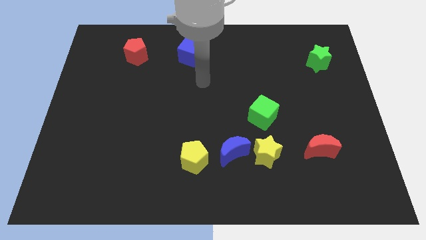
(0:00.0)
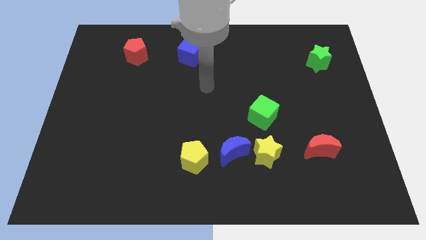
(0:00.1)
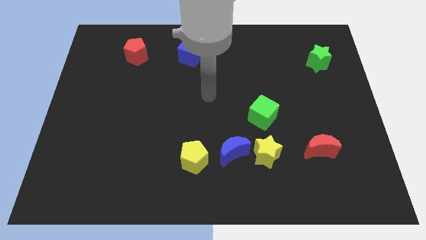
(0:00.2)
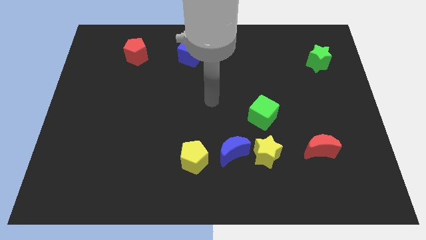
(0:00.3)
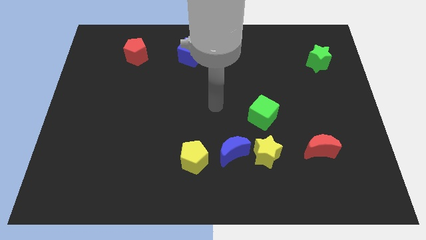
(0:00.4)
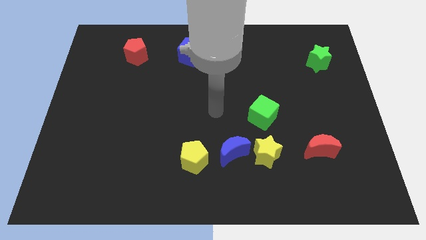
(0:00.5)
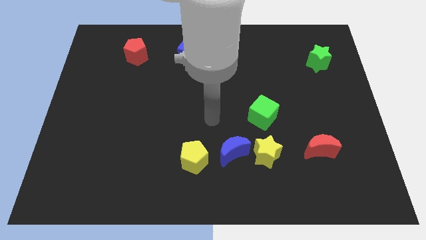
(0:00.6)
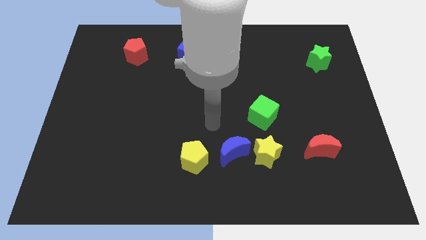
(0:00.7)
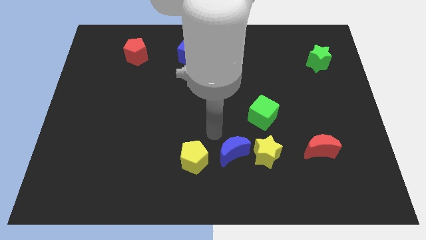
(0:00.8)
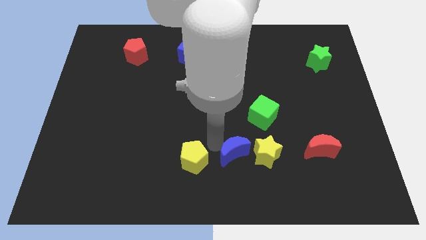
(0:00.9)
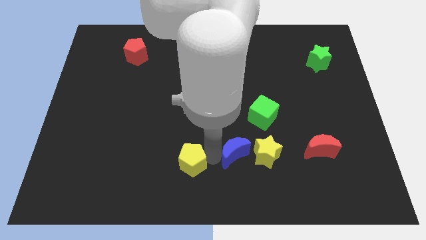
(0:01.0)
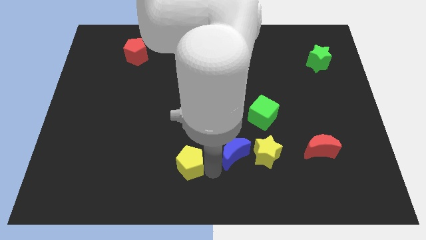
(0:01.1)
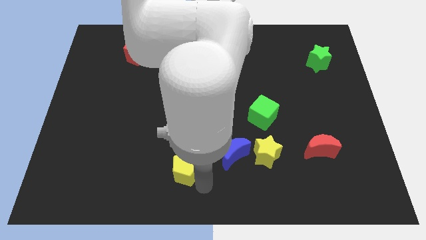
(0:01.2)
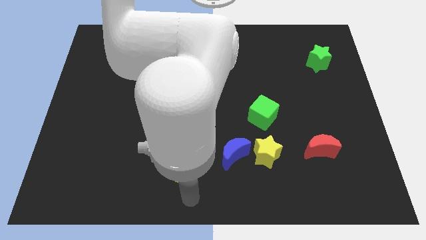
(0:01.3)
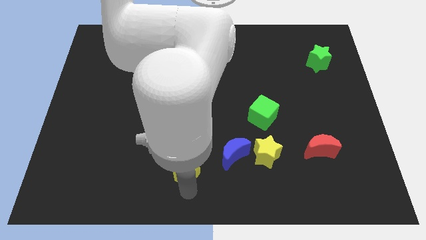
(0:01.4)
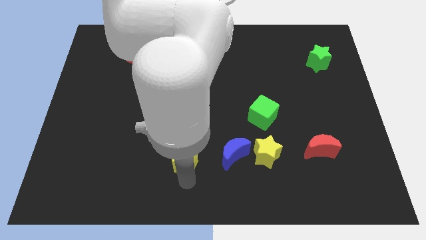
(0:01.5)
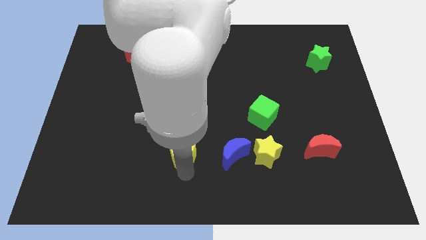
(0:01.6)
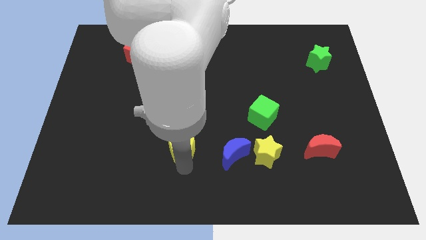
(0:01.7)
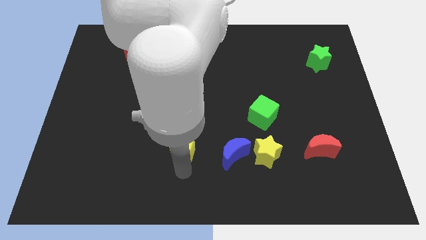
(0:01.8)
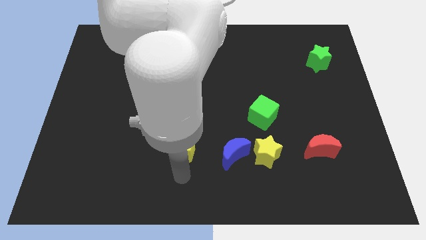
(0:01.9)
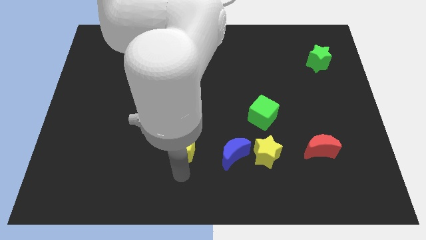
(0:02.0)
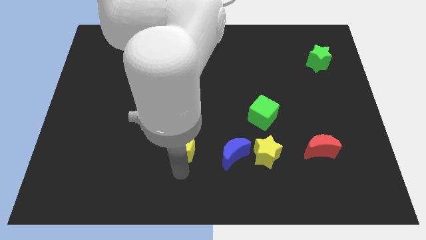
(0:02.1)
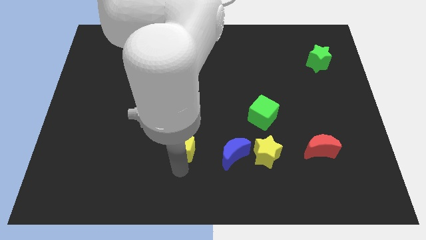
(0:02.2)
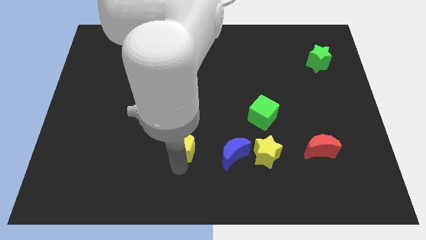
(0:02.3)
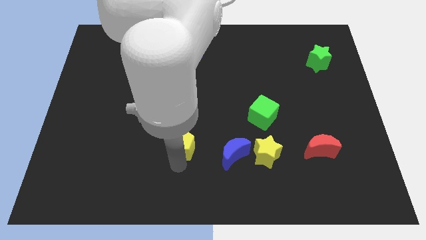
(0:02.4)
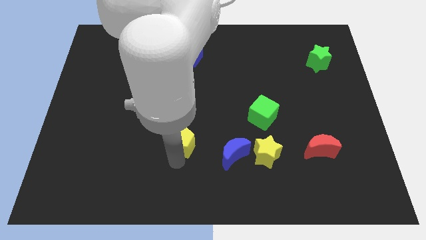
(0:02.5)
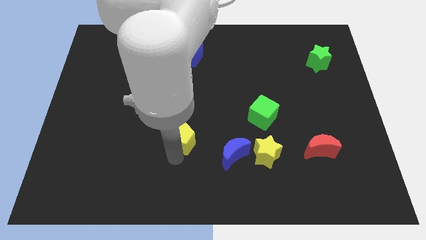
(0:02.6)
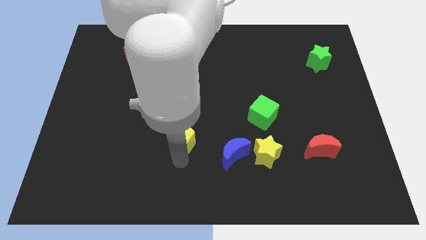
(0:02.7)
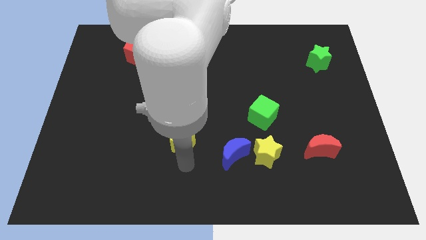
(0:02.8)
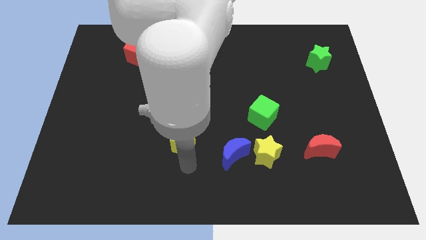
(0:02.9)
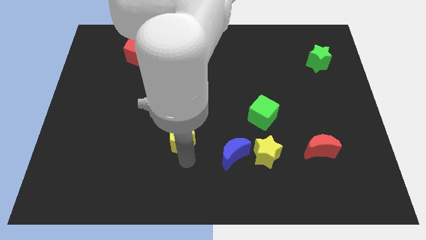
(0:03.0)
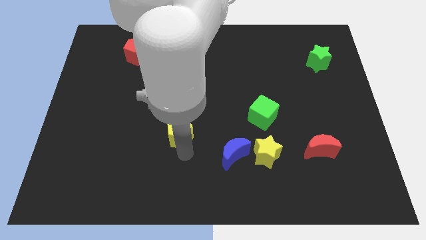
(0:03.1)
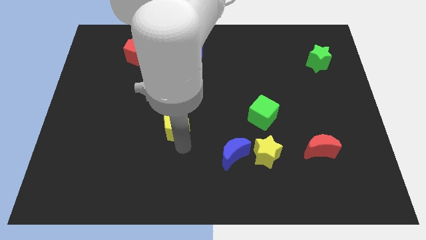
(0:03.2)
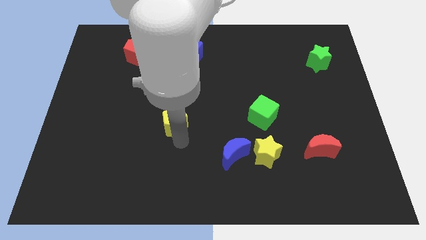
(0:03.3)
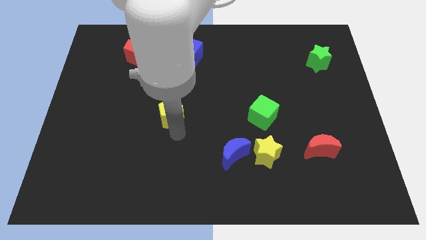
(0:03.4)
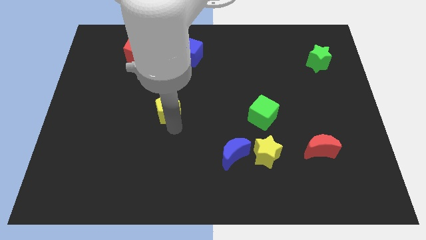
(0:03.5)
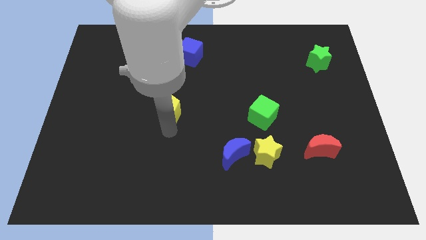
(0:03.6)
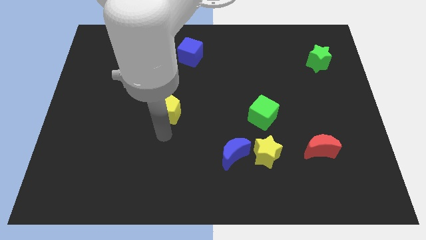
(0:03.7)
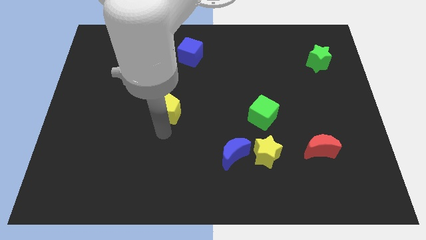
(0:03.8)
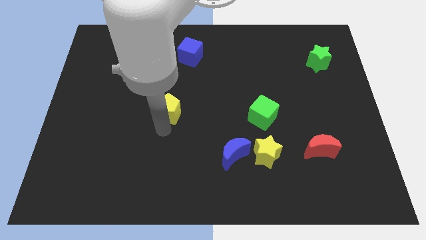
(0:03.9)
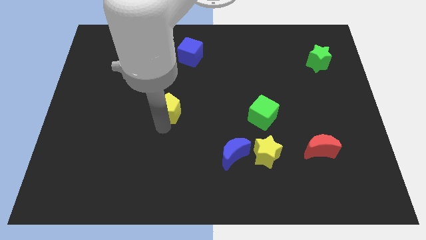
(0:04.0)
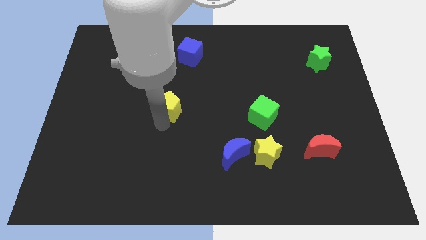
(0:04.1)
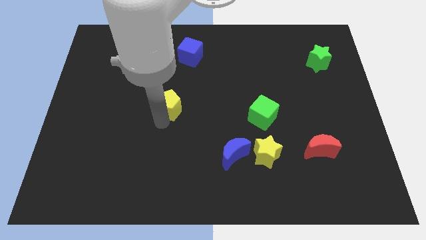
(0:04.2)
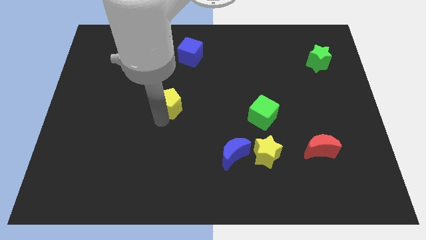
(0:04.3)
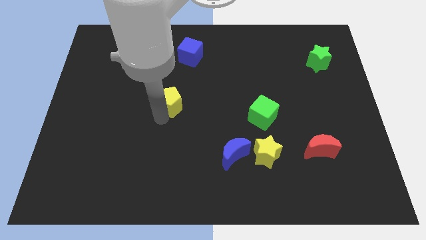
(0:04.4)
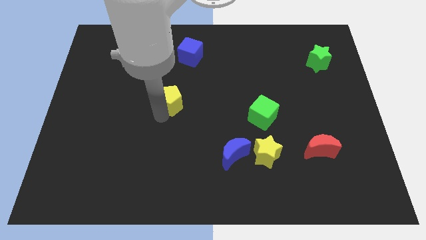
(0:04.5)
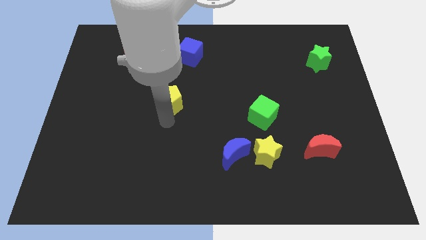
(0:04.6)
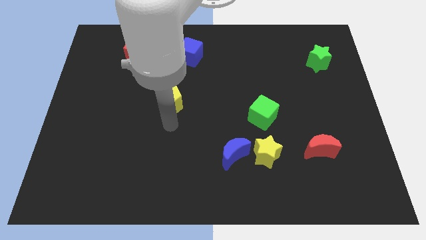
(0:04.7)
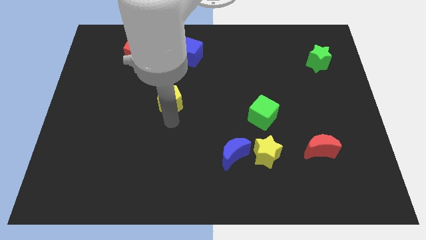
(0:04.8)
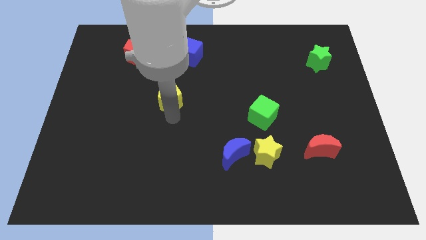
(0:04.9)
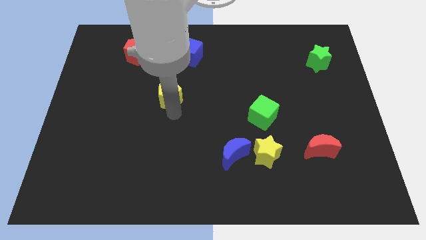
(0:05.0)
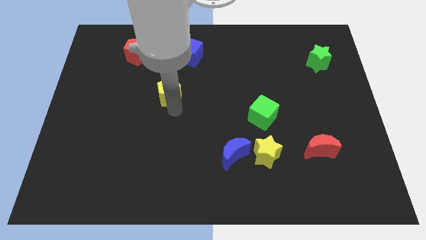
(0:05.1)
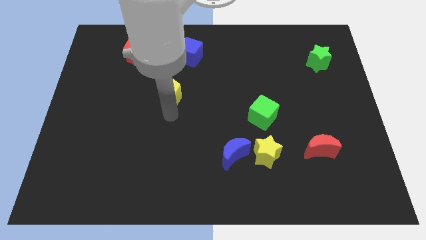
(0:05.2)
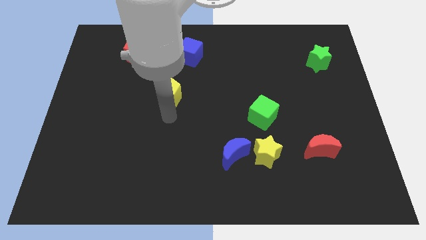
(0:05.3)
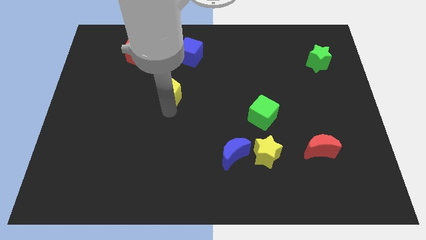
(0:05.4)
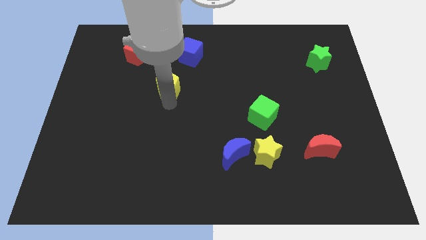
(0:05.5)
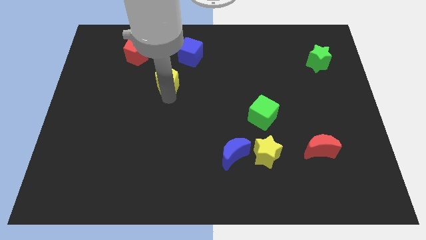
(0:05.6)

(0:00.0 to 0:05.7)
slide the yellow pentagon to the bottom left of the blue cube

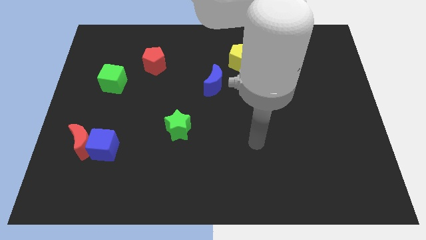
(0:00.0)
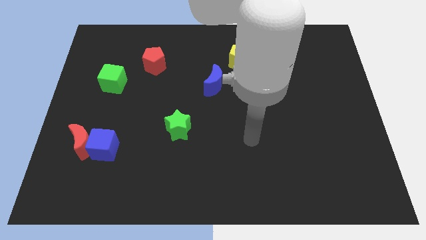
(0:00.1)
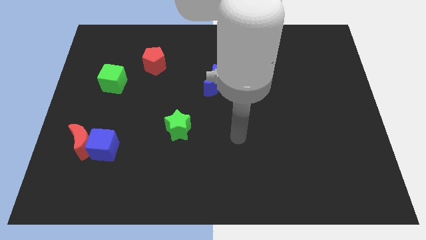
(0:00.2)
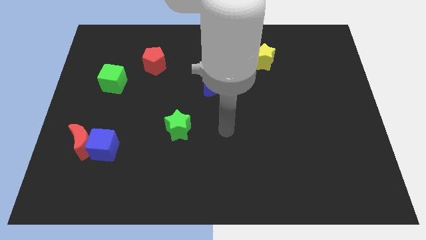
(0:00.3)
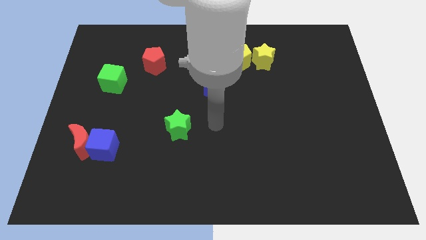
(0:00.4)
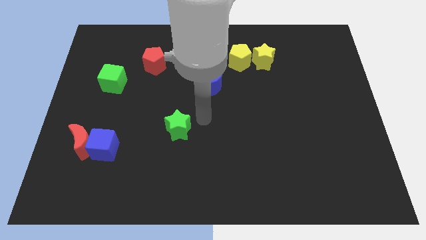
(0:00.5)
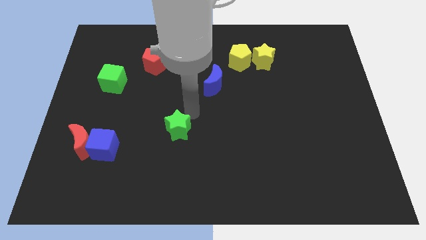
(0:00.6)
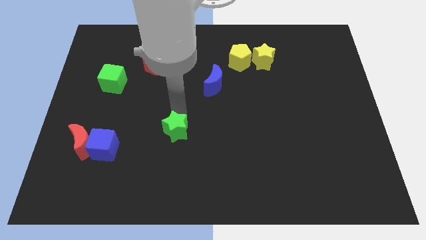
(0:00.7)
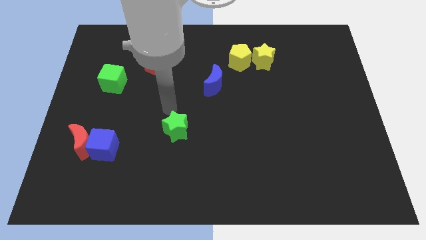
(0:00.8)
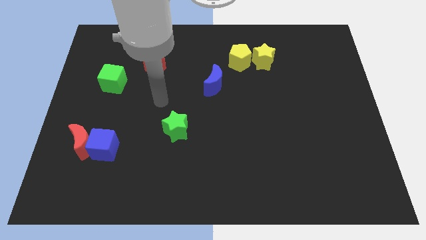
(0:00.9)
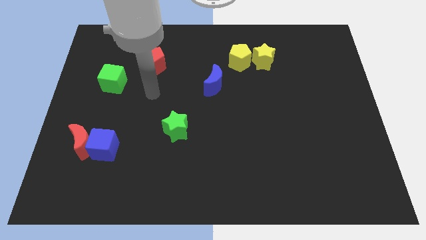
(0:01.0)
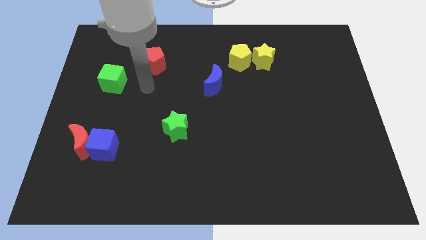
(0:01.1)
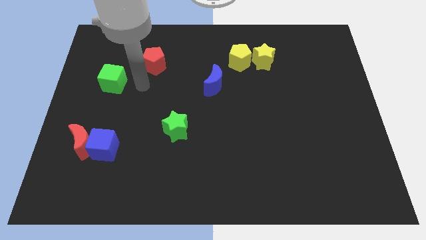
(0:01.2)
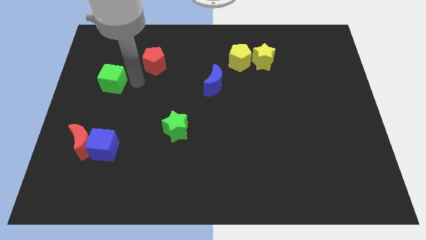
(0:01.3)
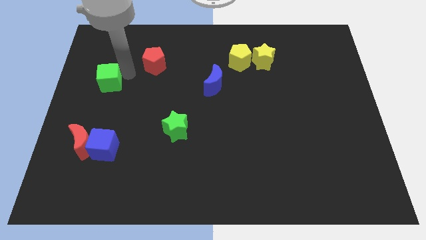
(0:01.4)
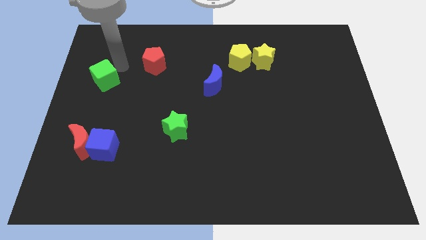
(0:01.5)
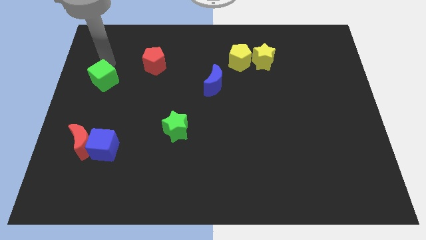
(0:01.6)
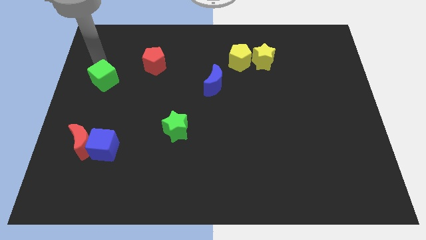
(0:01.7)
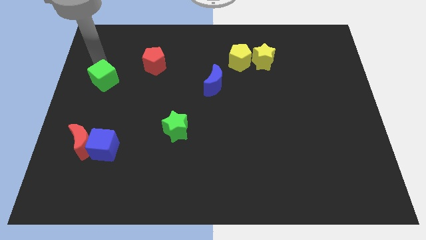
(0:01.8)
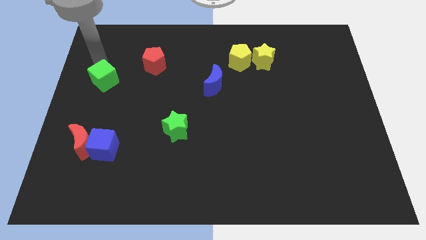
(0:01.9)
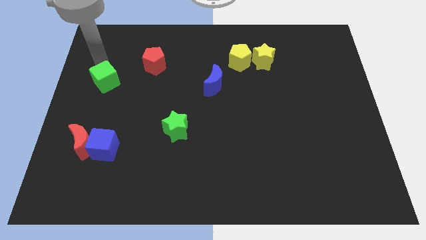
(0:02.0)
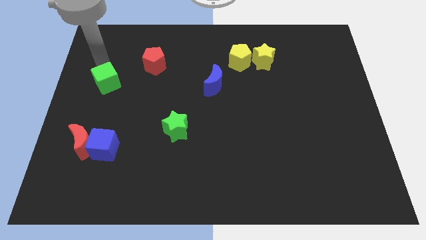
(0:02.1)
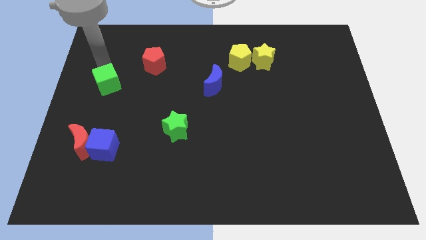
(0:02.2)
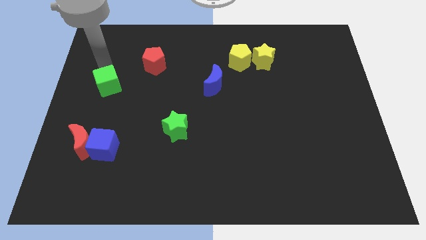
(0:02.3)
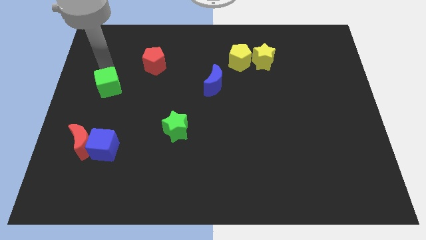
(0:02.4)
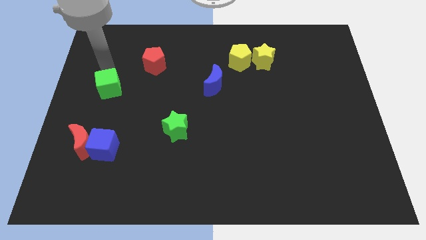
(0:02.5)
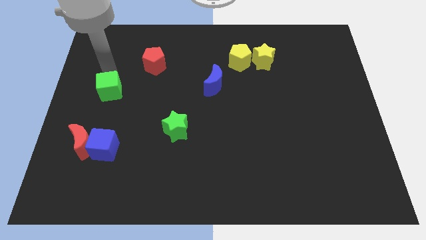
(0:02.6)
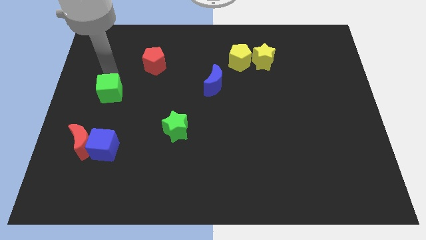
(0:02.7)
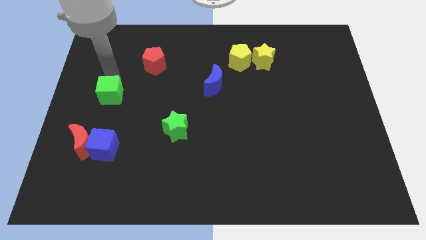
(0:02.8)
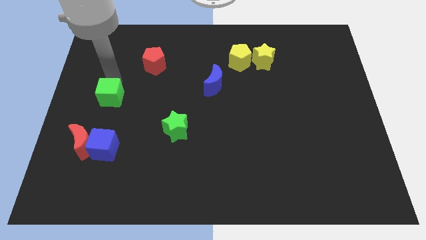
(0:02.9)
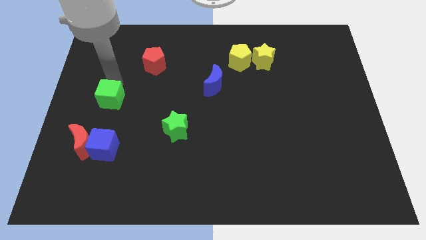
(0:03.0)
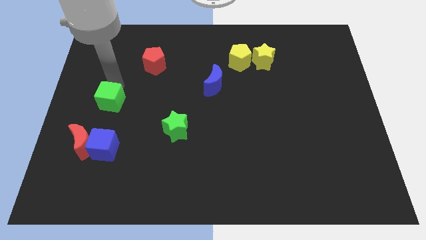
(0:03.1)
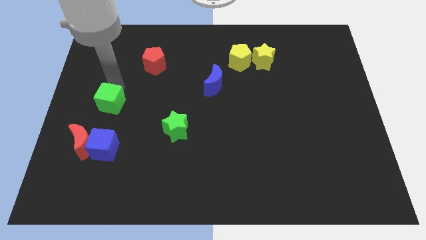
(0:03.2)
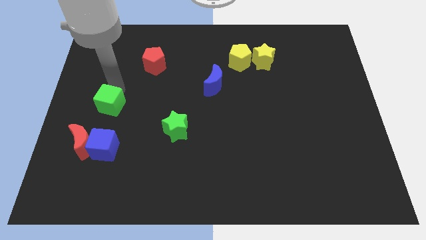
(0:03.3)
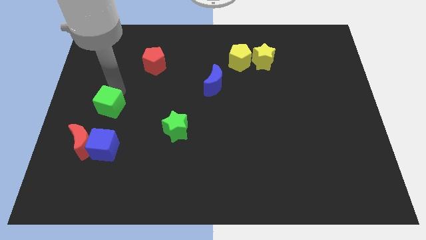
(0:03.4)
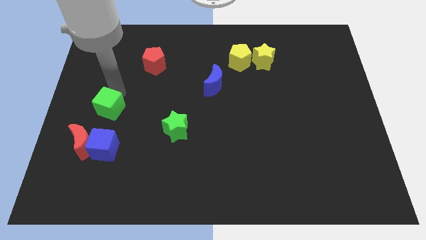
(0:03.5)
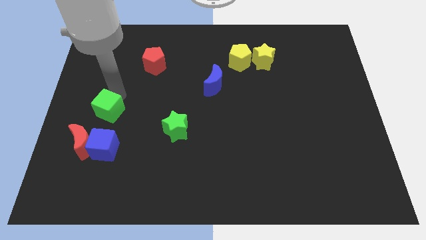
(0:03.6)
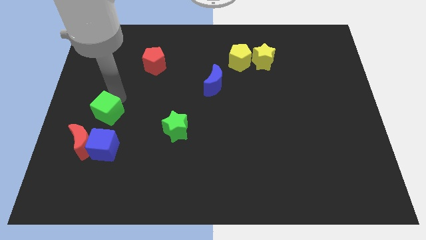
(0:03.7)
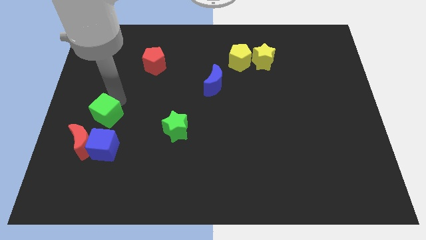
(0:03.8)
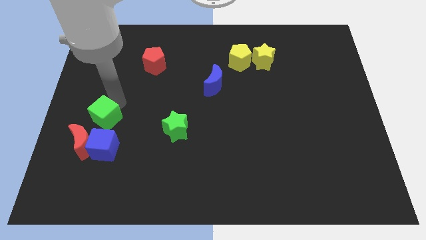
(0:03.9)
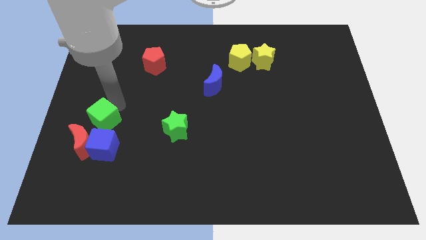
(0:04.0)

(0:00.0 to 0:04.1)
move the green cube to the top left side of the blue cube
